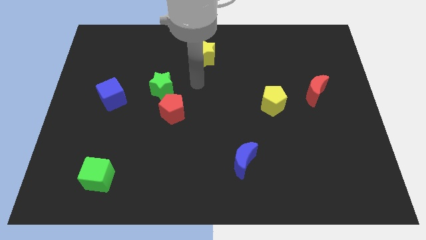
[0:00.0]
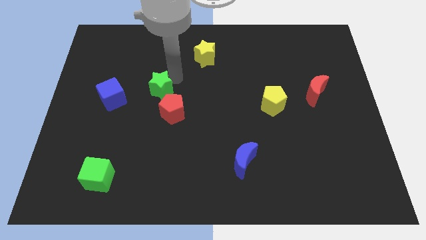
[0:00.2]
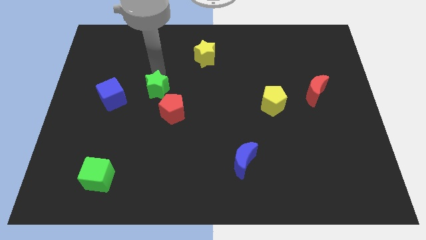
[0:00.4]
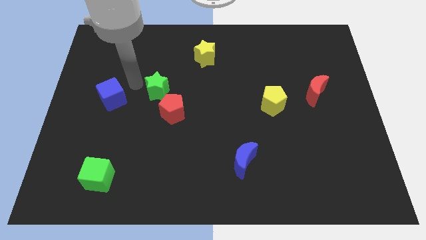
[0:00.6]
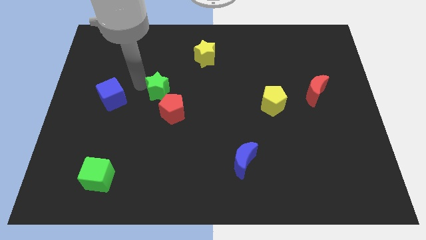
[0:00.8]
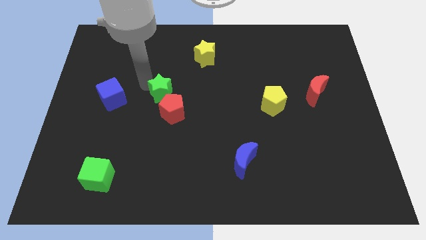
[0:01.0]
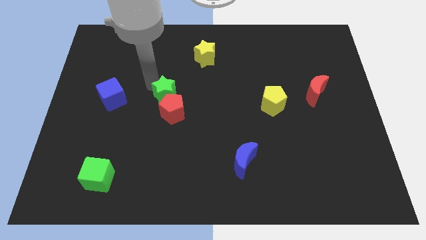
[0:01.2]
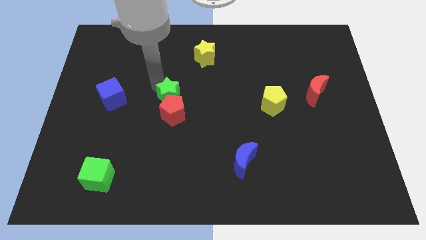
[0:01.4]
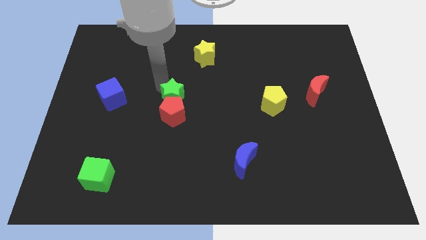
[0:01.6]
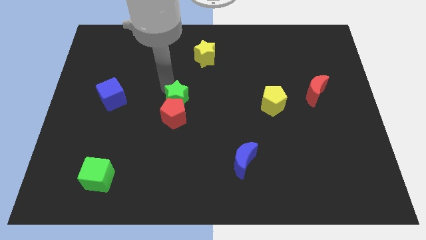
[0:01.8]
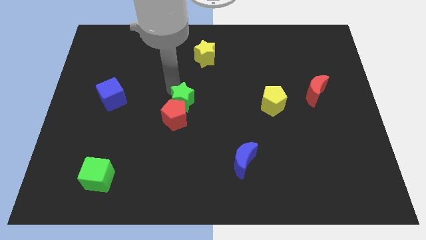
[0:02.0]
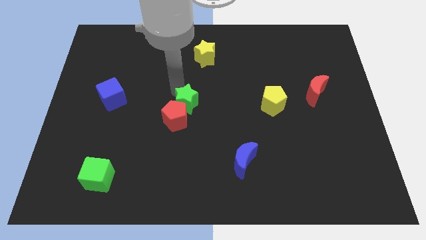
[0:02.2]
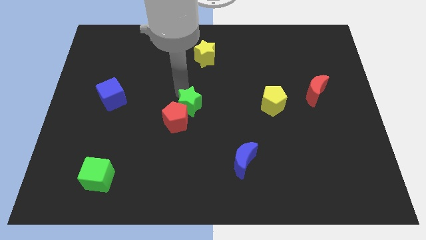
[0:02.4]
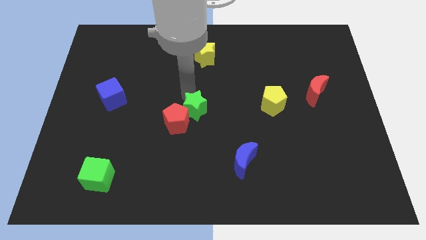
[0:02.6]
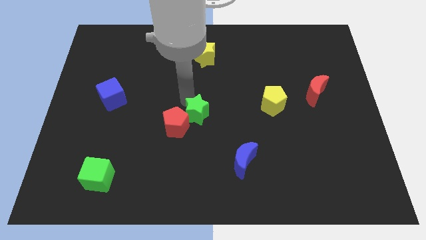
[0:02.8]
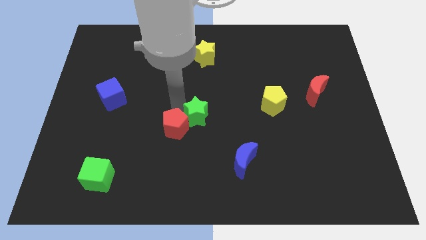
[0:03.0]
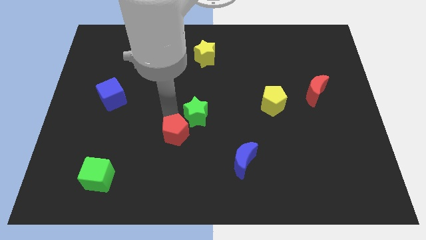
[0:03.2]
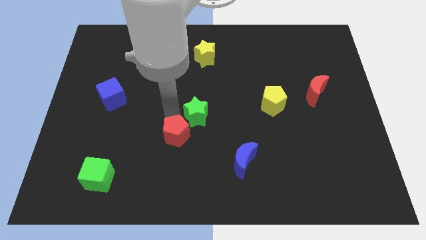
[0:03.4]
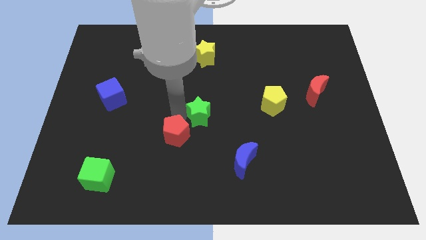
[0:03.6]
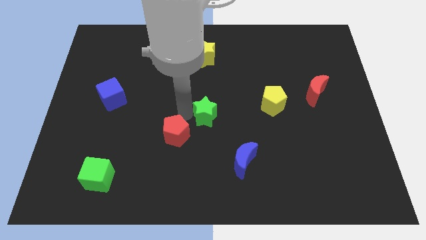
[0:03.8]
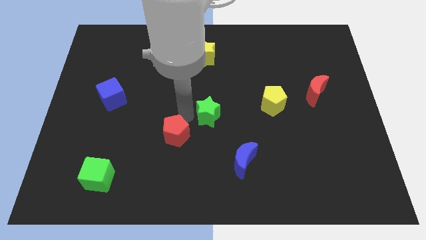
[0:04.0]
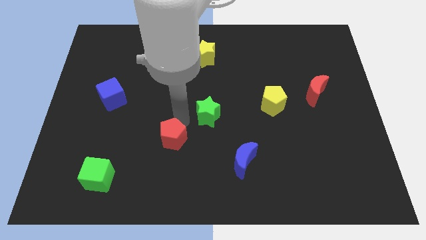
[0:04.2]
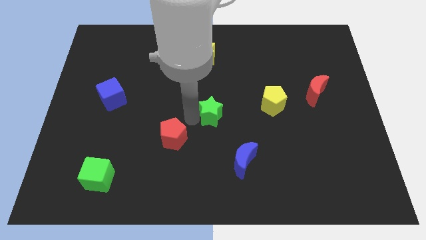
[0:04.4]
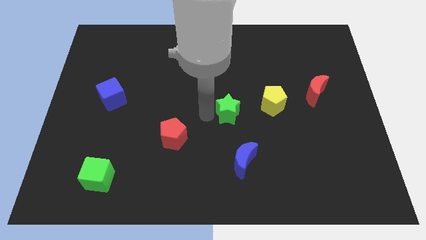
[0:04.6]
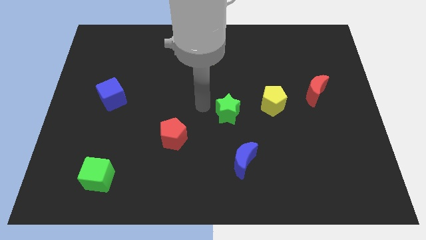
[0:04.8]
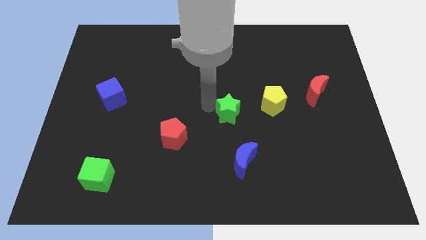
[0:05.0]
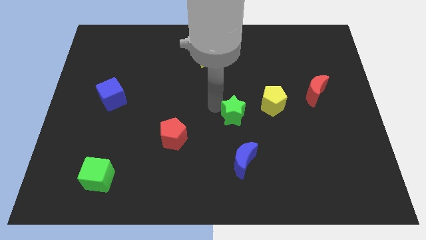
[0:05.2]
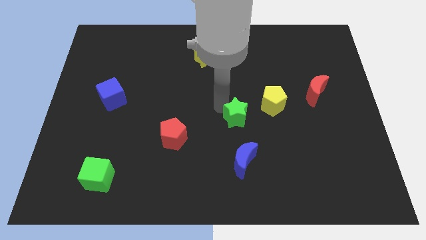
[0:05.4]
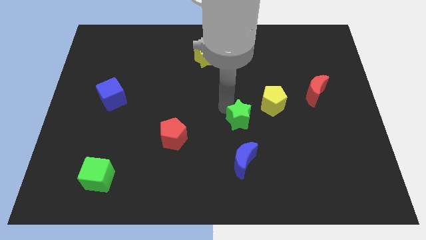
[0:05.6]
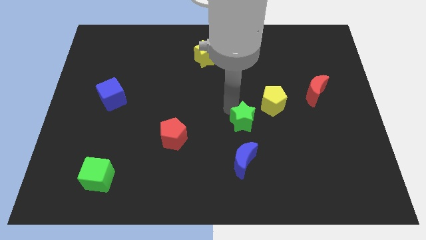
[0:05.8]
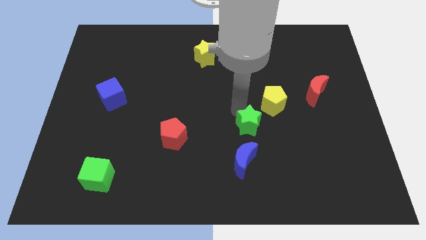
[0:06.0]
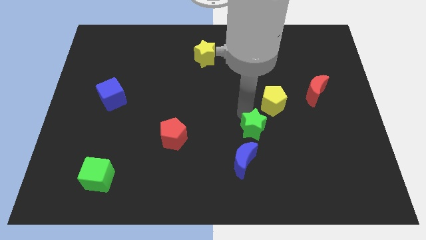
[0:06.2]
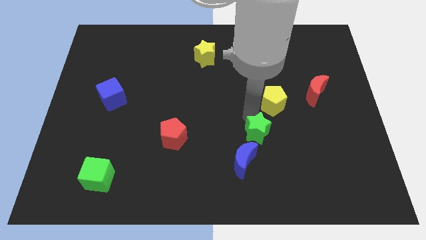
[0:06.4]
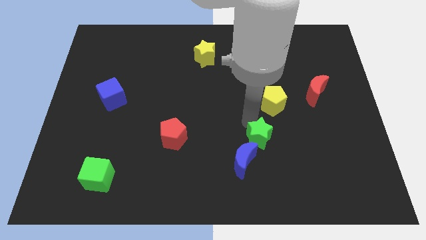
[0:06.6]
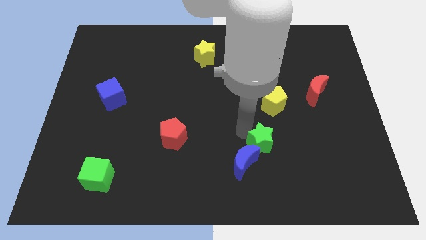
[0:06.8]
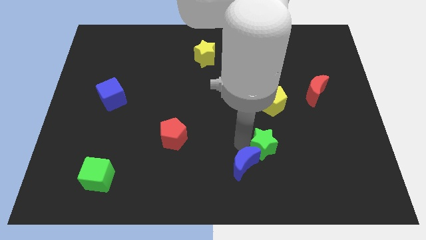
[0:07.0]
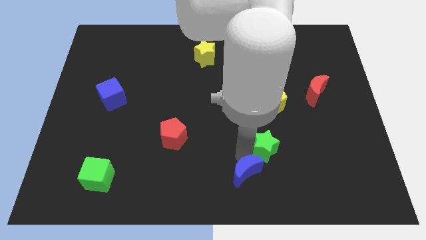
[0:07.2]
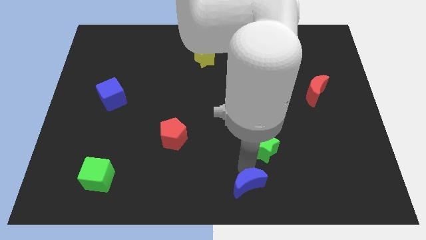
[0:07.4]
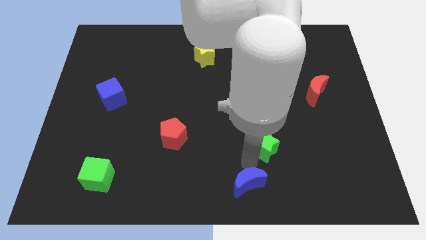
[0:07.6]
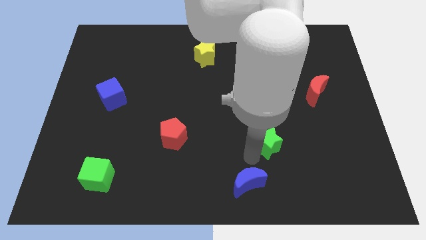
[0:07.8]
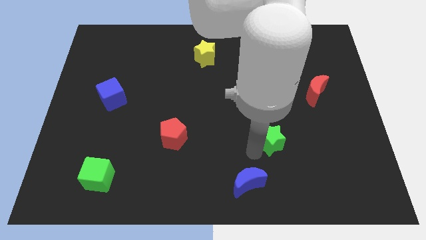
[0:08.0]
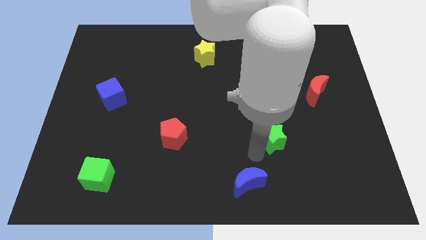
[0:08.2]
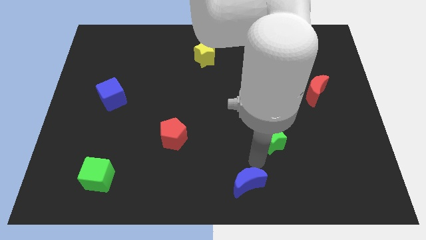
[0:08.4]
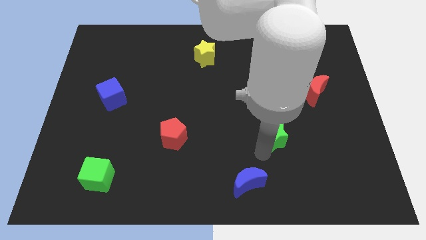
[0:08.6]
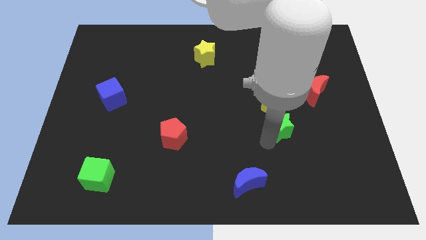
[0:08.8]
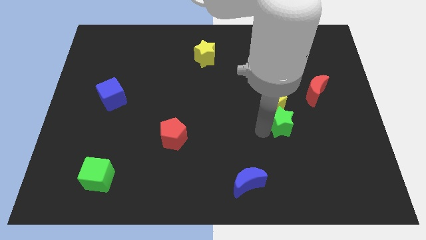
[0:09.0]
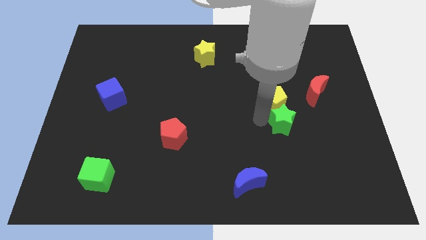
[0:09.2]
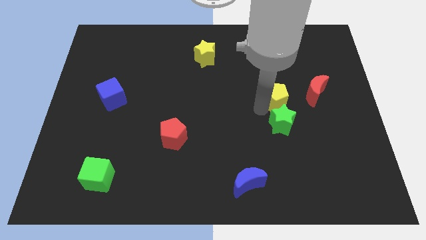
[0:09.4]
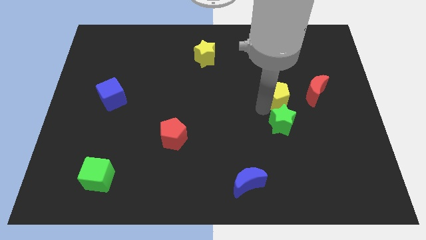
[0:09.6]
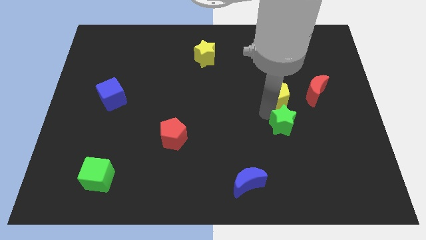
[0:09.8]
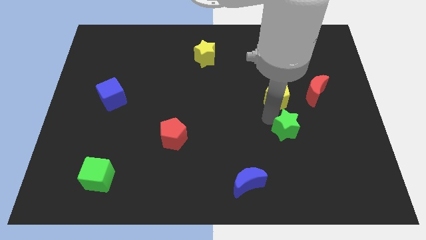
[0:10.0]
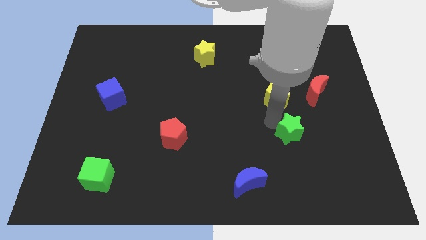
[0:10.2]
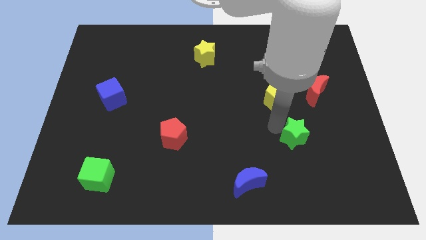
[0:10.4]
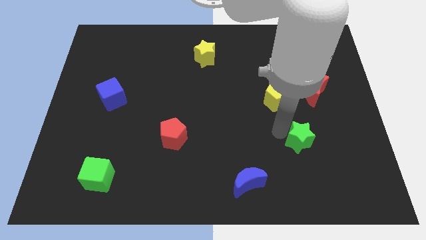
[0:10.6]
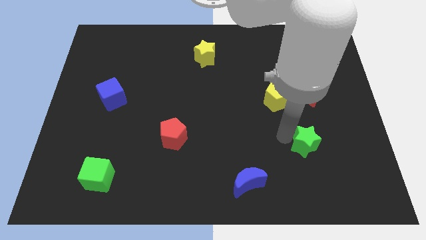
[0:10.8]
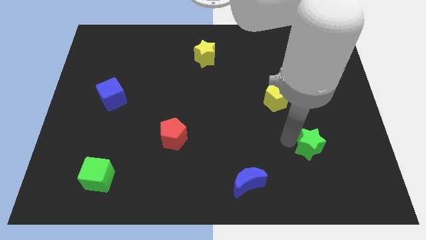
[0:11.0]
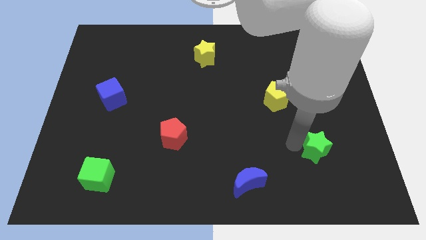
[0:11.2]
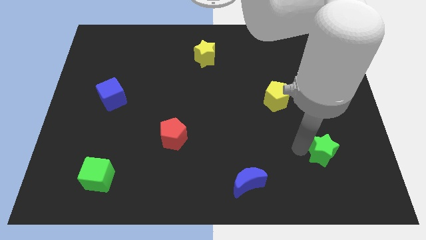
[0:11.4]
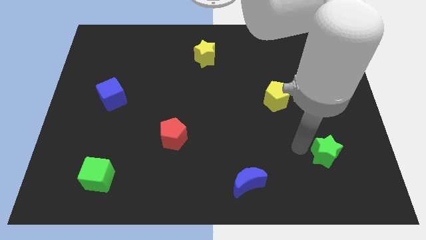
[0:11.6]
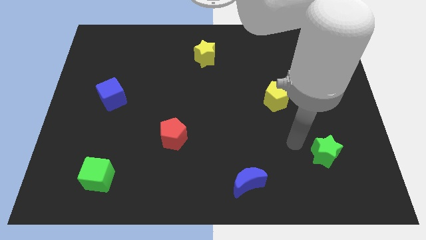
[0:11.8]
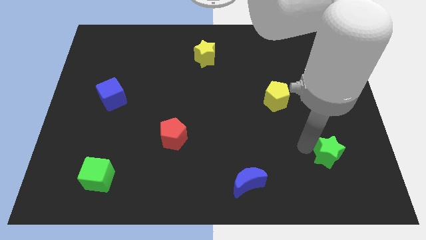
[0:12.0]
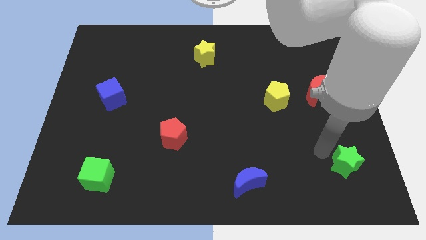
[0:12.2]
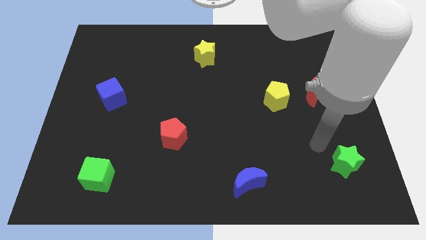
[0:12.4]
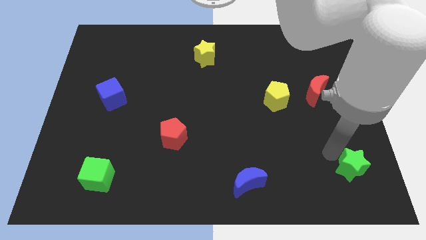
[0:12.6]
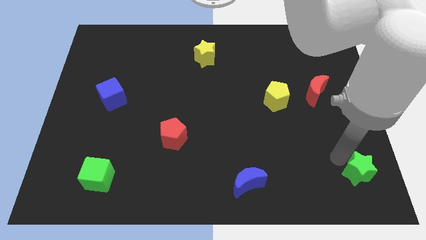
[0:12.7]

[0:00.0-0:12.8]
move the green star to the bottom right of the board

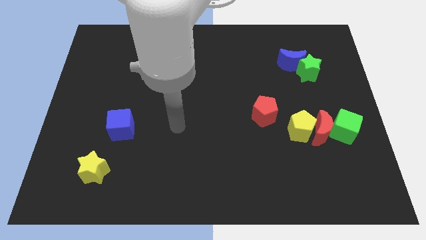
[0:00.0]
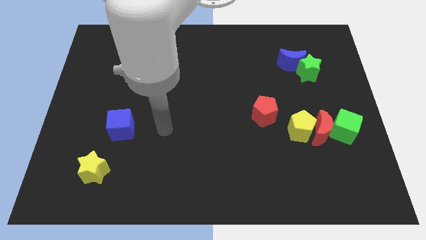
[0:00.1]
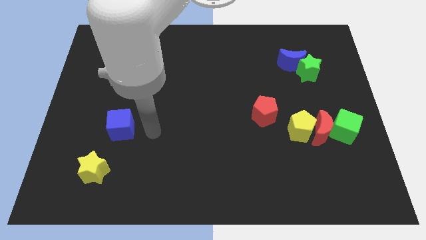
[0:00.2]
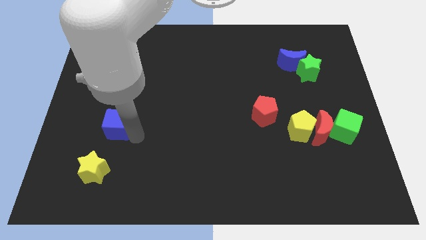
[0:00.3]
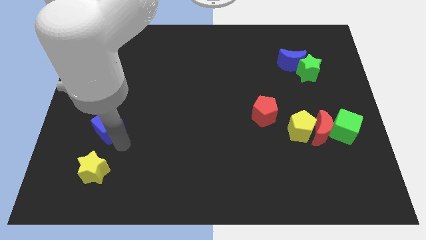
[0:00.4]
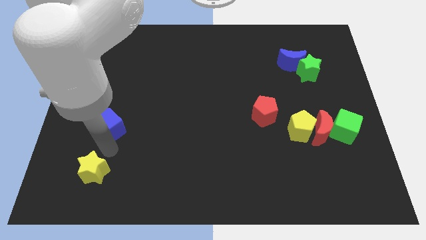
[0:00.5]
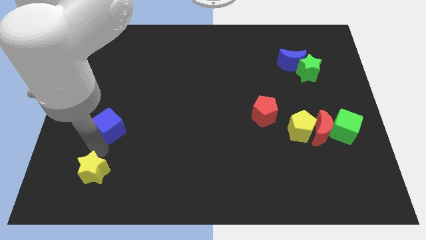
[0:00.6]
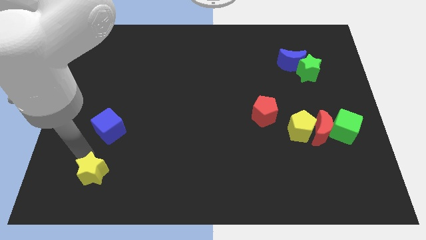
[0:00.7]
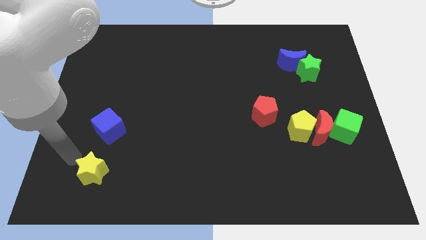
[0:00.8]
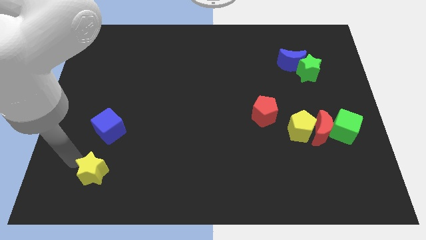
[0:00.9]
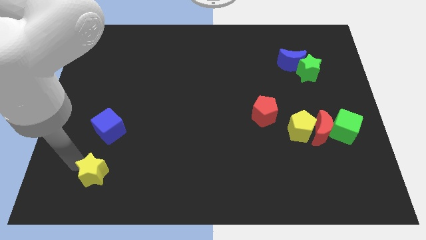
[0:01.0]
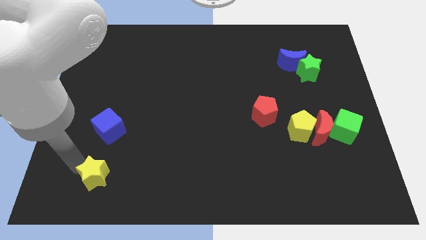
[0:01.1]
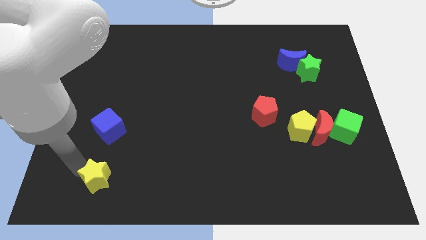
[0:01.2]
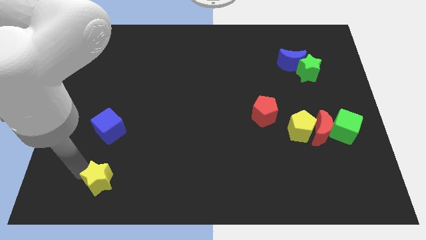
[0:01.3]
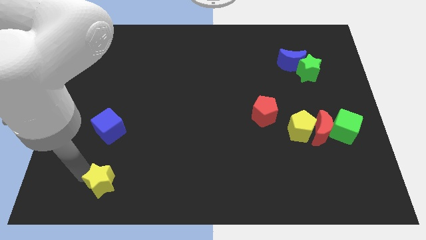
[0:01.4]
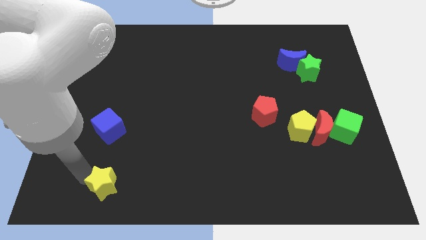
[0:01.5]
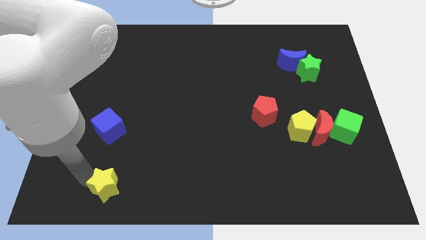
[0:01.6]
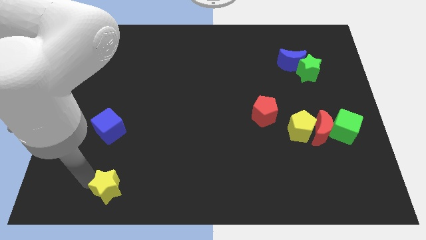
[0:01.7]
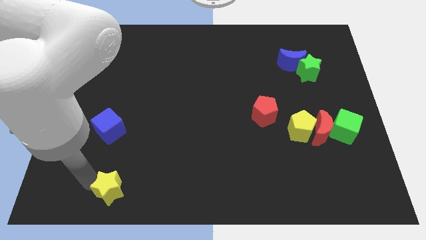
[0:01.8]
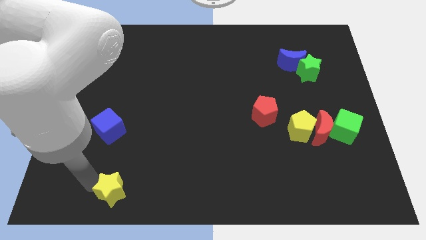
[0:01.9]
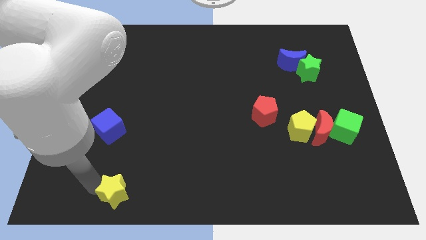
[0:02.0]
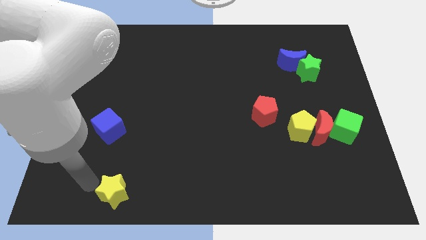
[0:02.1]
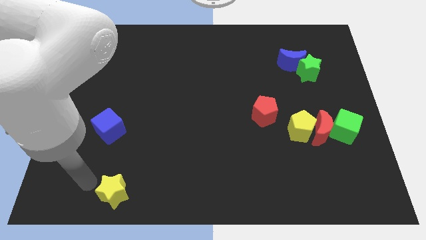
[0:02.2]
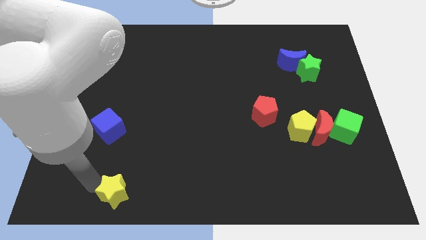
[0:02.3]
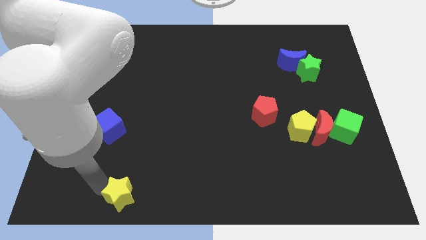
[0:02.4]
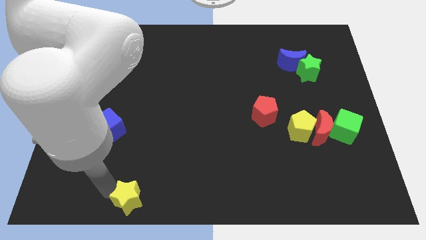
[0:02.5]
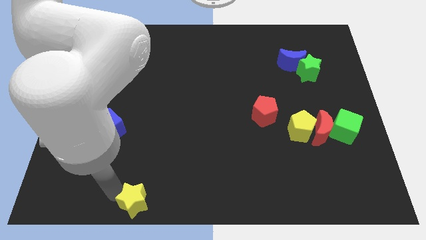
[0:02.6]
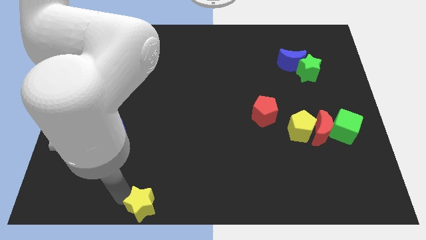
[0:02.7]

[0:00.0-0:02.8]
slide the yellow star to the bottom side
